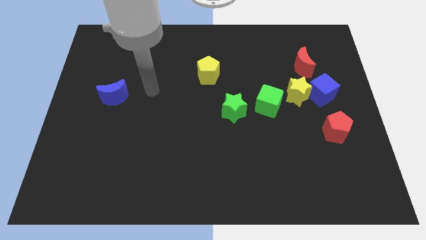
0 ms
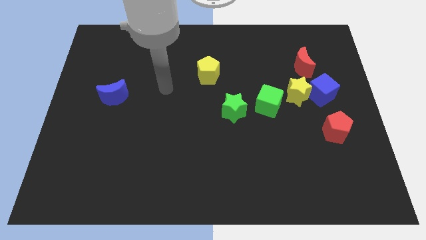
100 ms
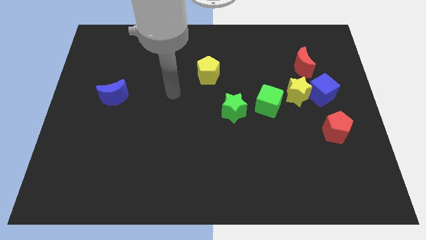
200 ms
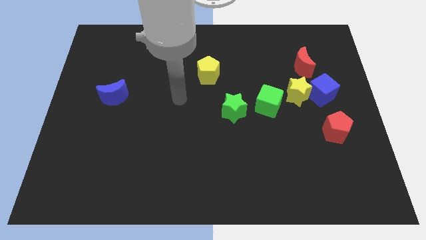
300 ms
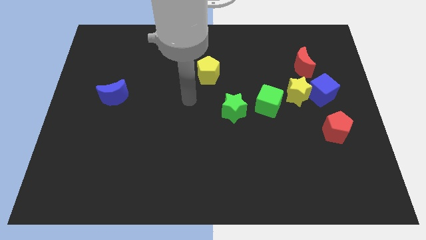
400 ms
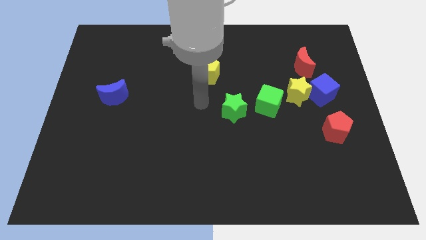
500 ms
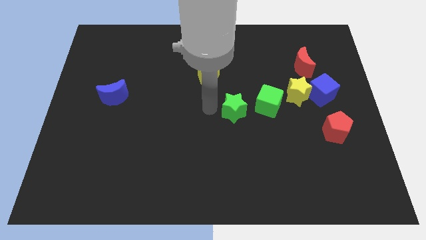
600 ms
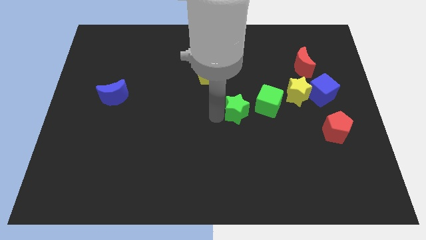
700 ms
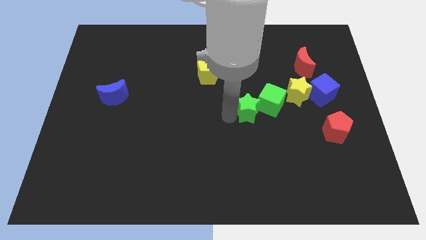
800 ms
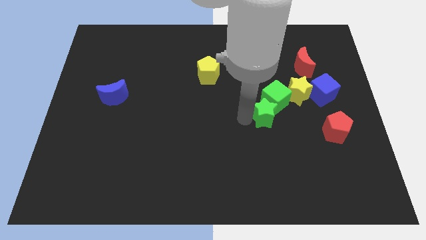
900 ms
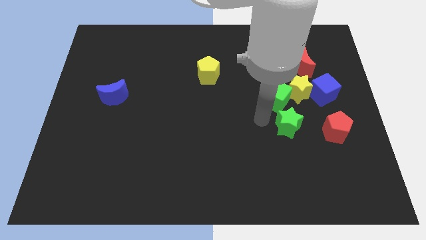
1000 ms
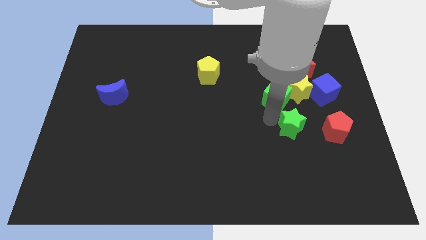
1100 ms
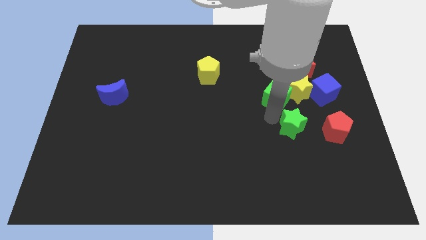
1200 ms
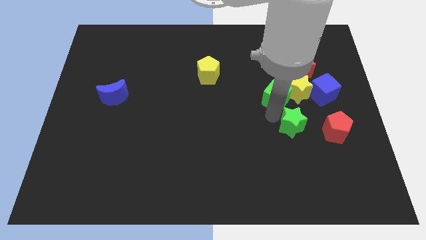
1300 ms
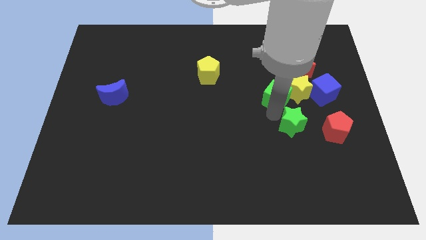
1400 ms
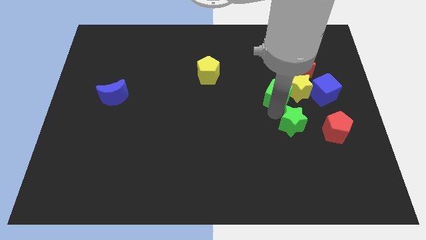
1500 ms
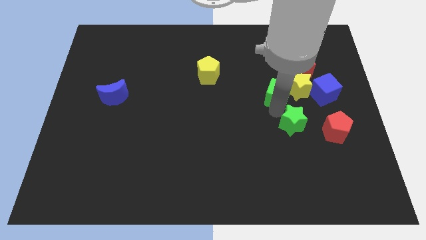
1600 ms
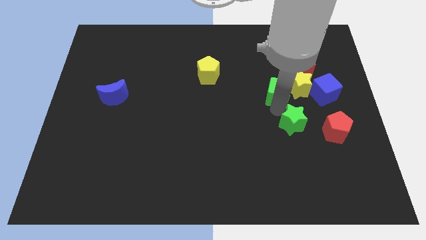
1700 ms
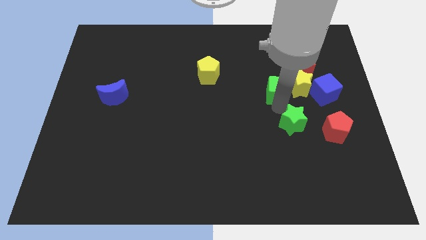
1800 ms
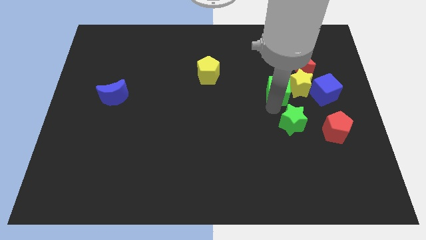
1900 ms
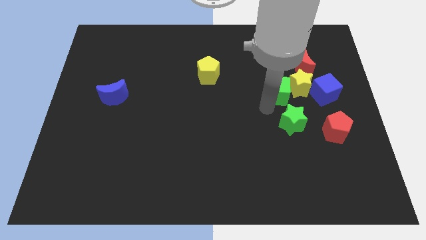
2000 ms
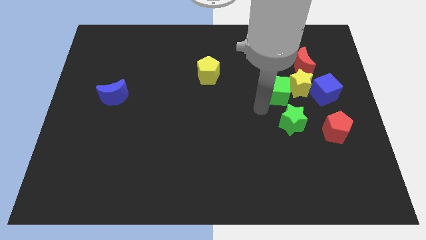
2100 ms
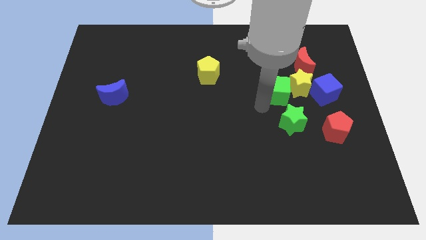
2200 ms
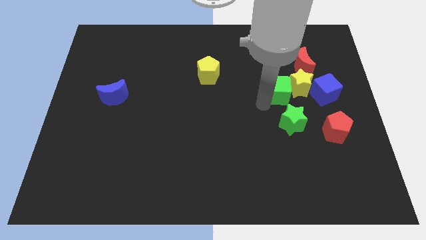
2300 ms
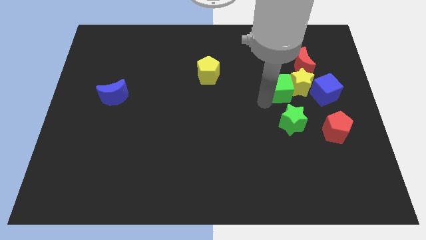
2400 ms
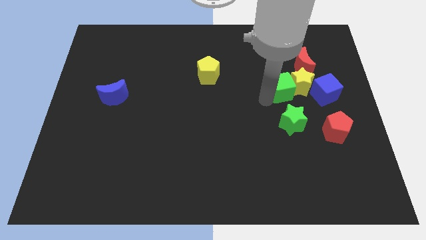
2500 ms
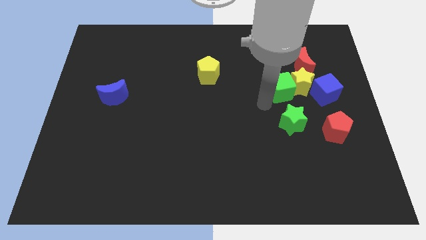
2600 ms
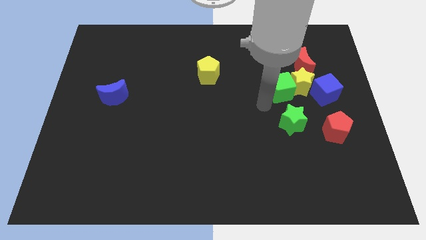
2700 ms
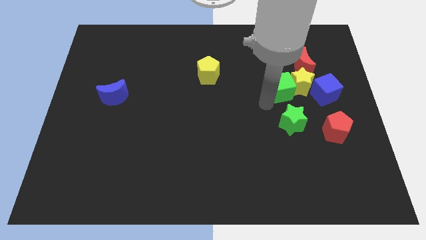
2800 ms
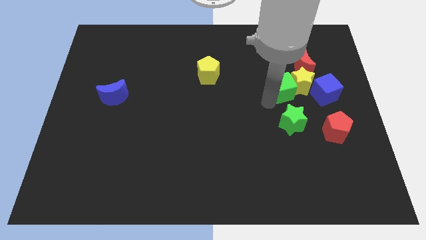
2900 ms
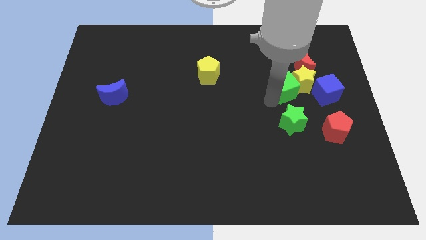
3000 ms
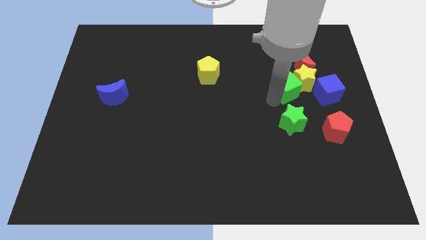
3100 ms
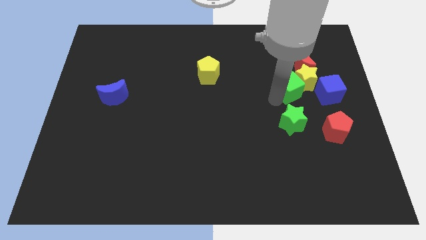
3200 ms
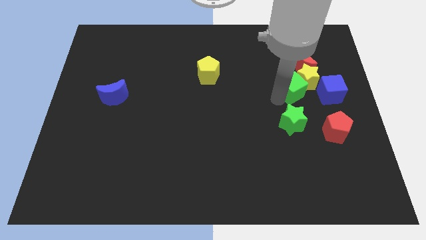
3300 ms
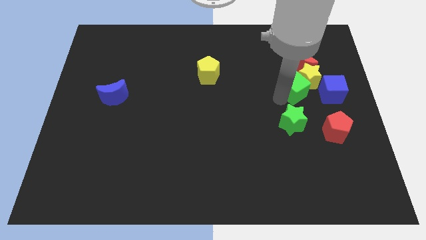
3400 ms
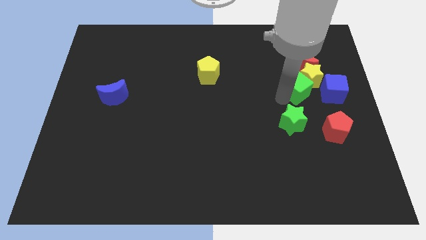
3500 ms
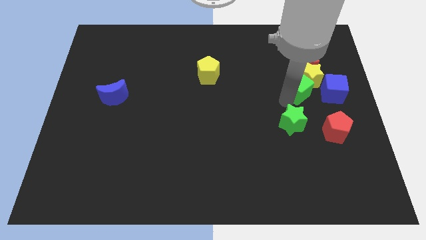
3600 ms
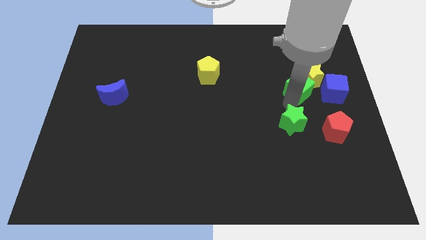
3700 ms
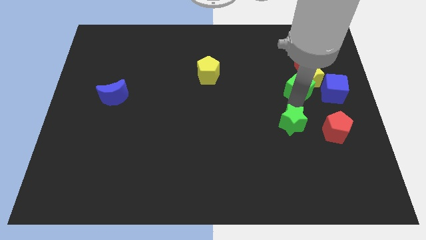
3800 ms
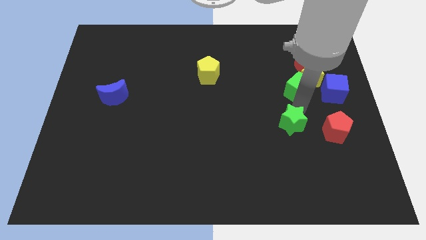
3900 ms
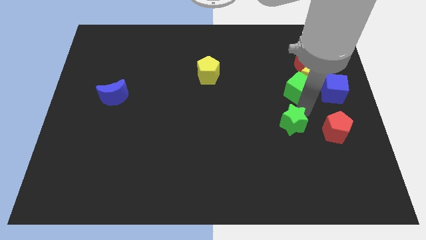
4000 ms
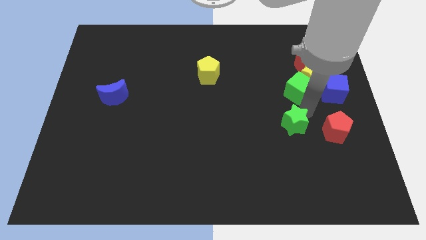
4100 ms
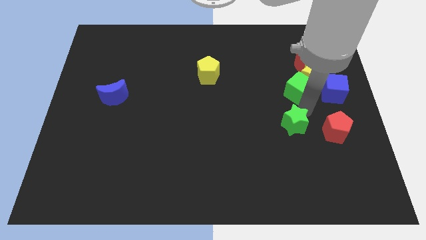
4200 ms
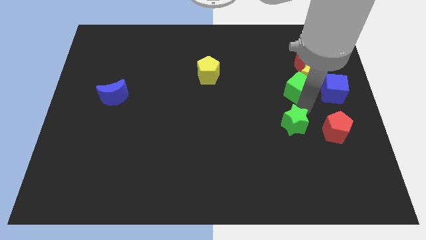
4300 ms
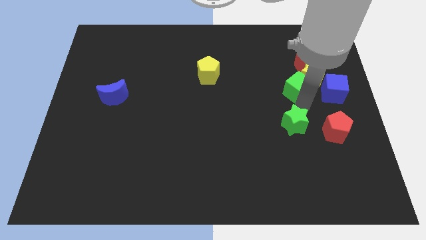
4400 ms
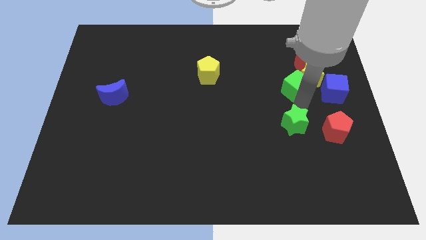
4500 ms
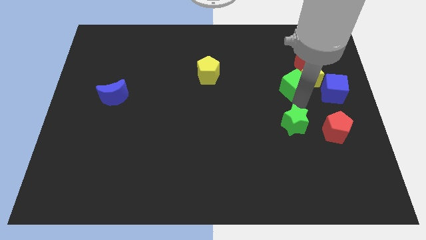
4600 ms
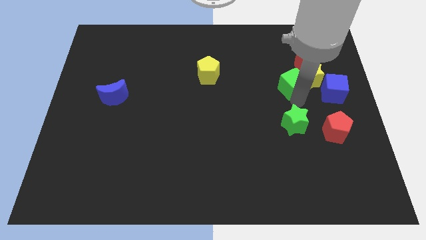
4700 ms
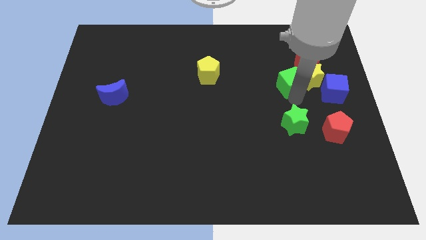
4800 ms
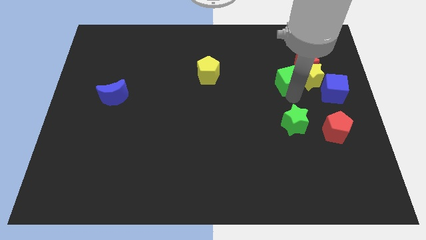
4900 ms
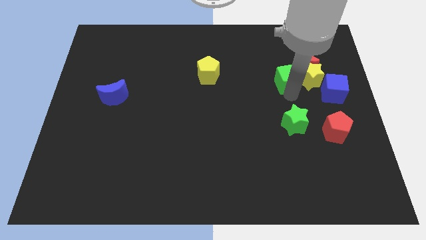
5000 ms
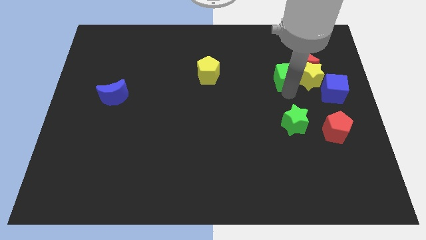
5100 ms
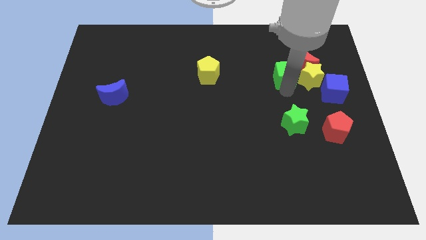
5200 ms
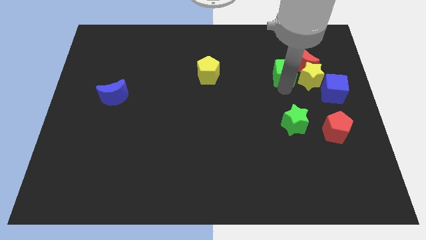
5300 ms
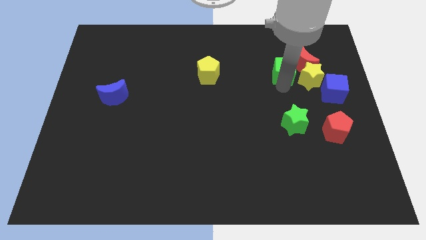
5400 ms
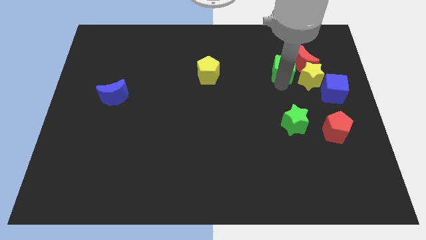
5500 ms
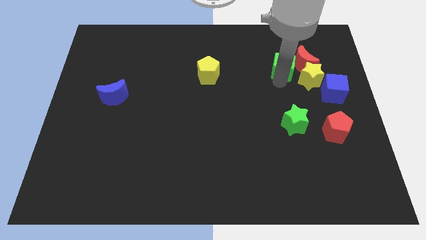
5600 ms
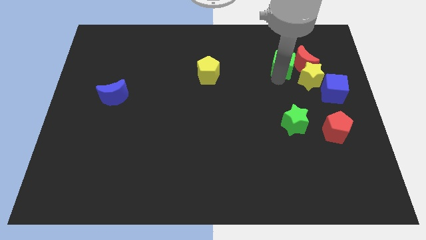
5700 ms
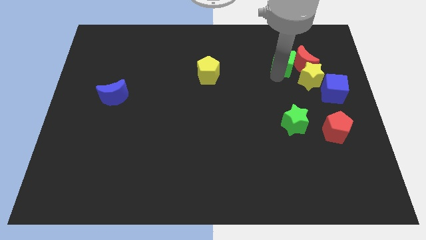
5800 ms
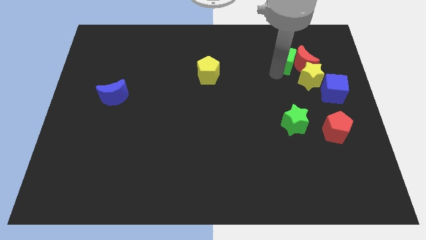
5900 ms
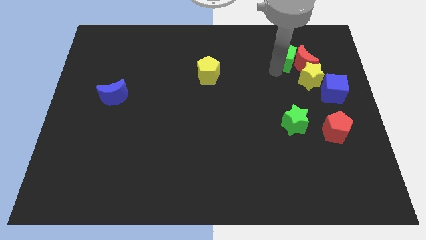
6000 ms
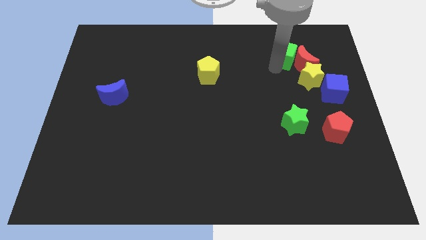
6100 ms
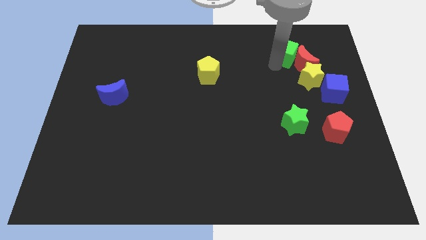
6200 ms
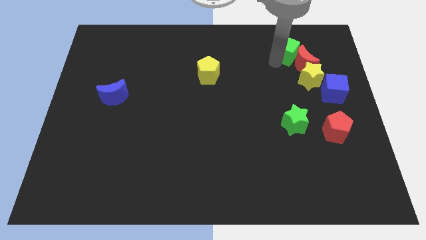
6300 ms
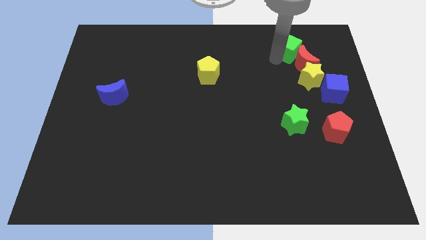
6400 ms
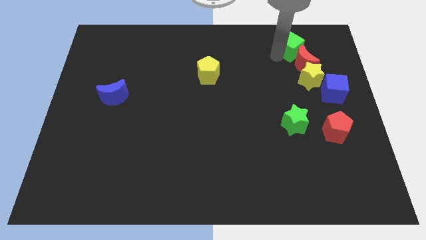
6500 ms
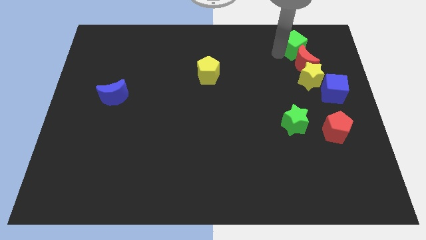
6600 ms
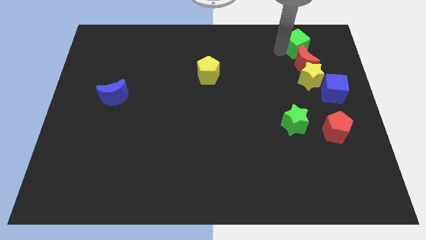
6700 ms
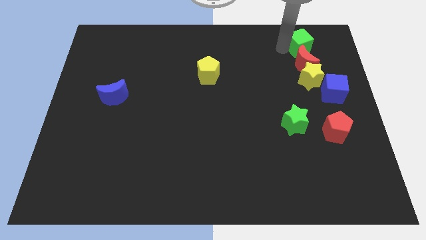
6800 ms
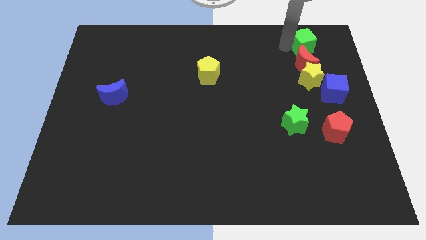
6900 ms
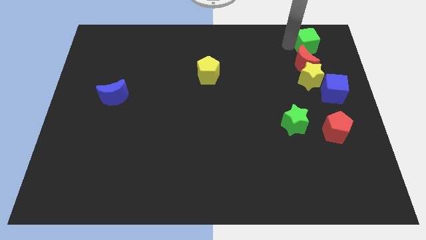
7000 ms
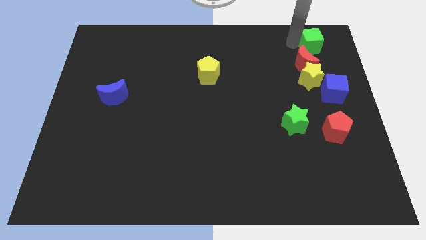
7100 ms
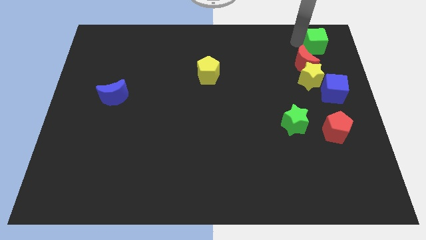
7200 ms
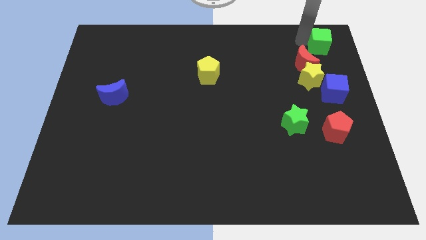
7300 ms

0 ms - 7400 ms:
put the green cube to the top right corner
